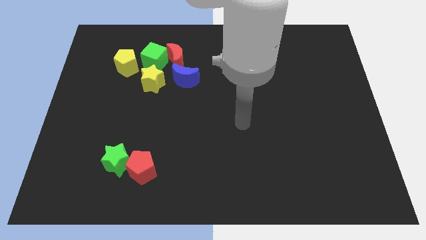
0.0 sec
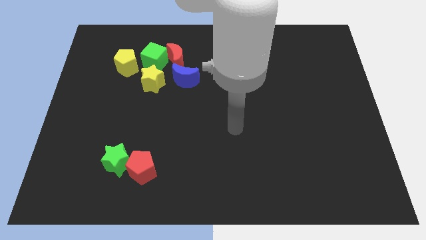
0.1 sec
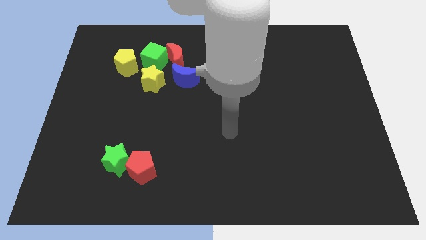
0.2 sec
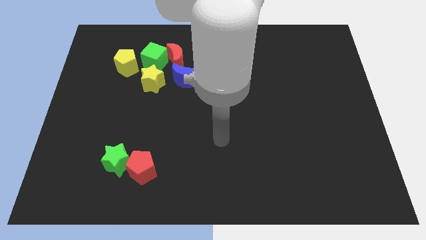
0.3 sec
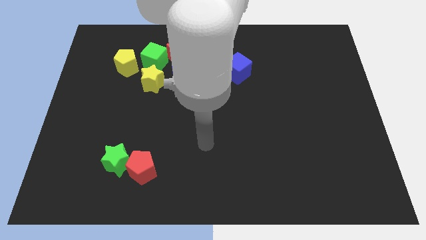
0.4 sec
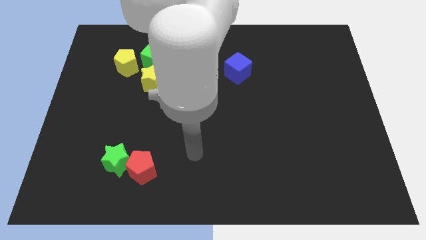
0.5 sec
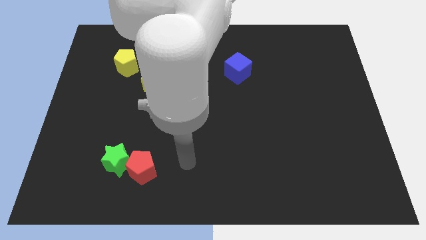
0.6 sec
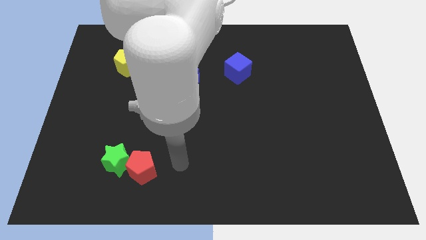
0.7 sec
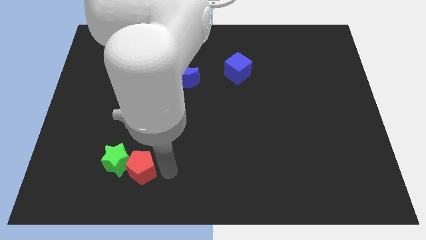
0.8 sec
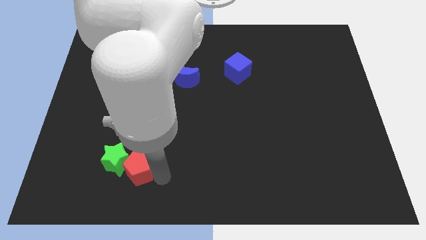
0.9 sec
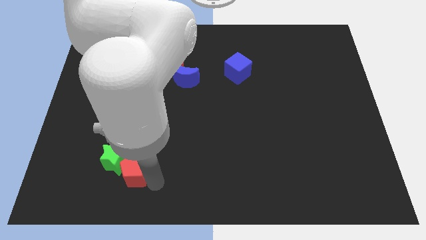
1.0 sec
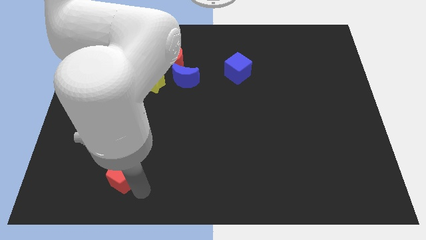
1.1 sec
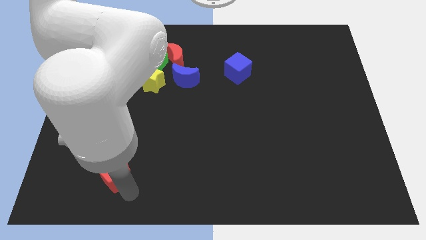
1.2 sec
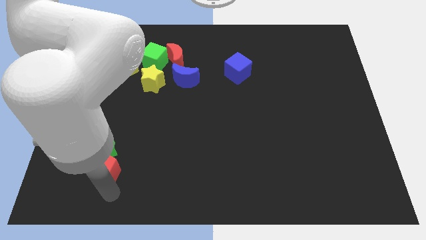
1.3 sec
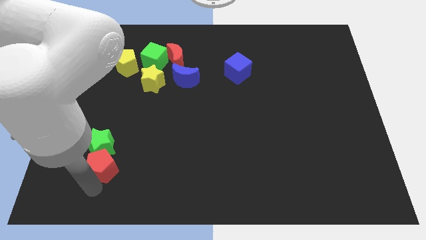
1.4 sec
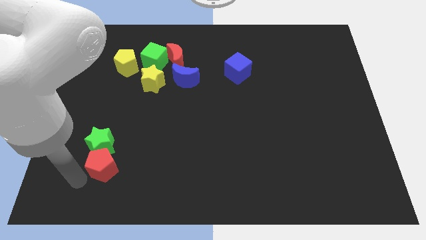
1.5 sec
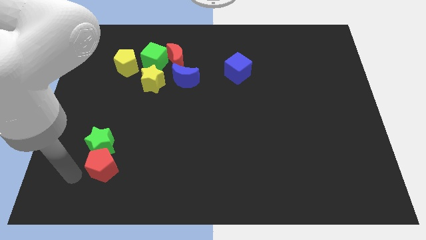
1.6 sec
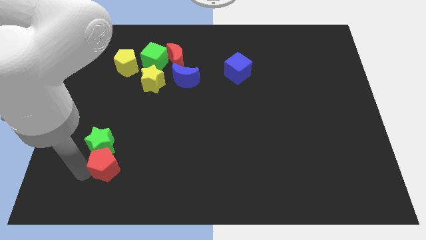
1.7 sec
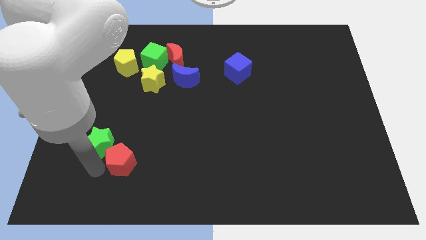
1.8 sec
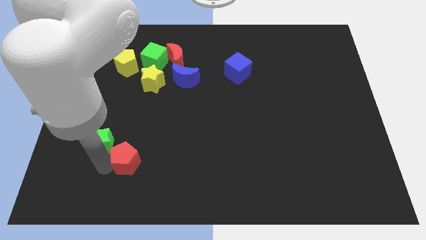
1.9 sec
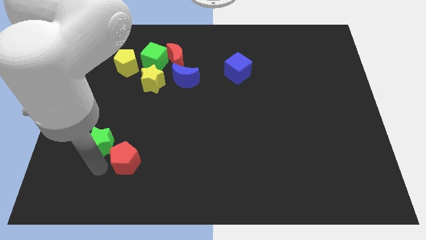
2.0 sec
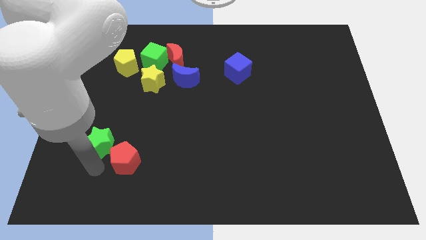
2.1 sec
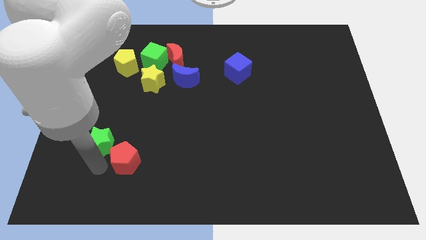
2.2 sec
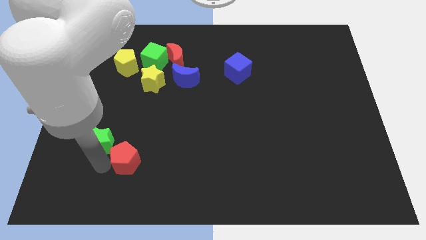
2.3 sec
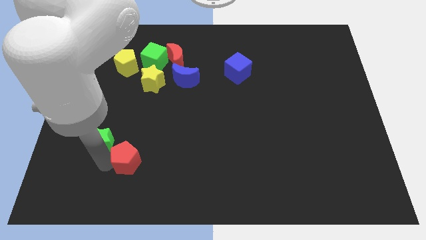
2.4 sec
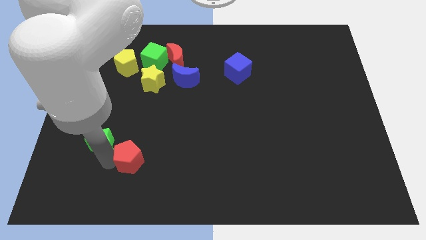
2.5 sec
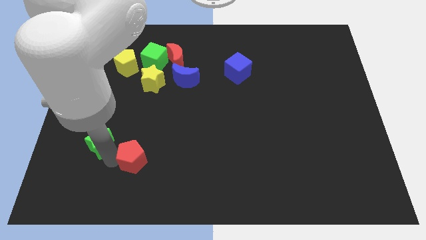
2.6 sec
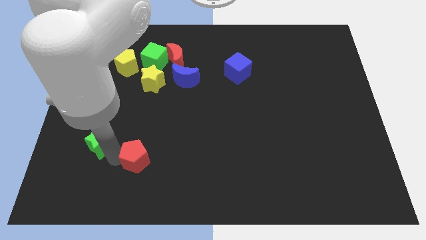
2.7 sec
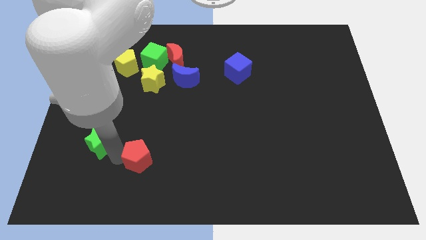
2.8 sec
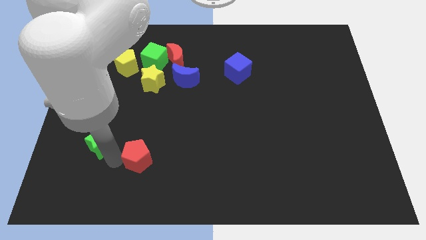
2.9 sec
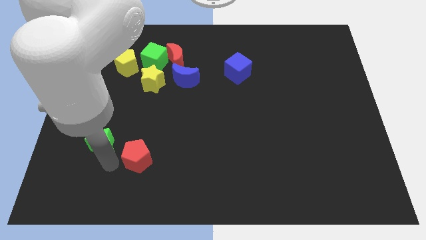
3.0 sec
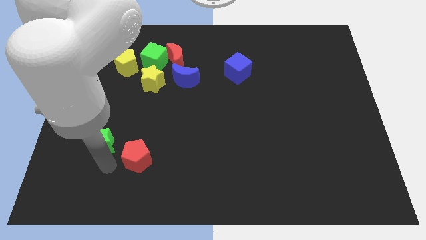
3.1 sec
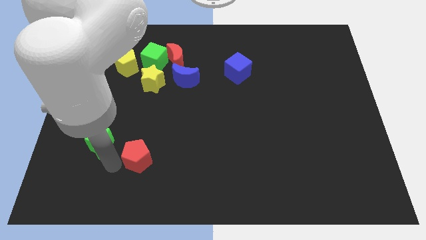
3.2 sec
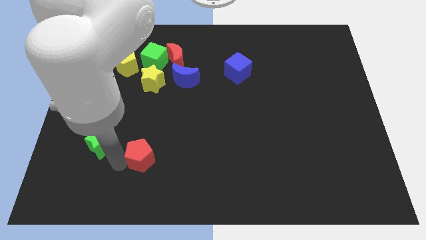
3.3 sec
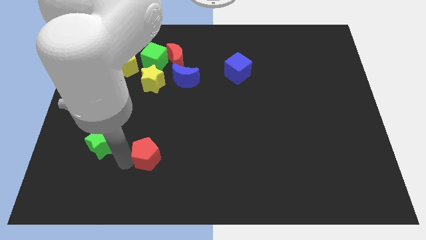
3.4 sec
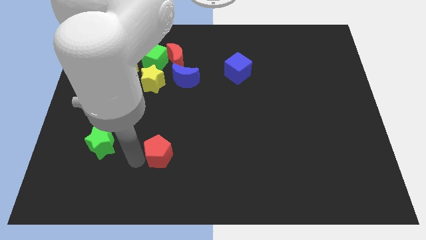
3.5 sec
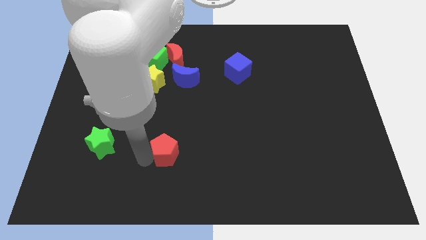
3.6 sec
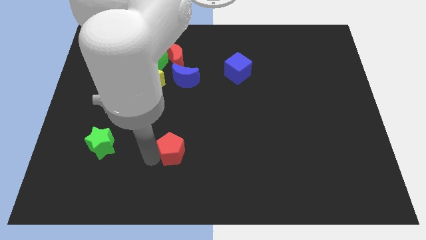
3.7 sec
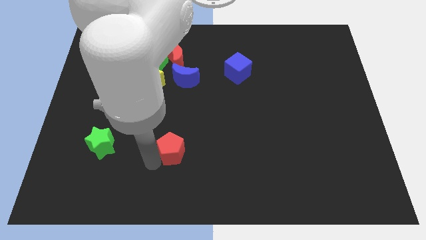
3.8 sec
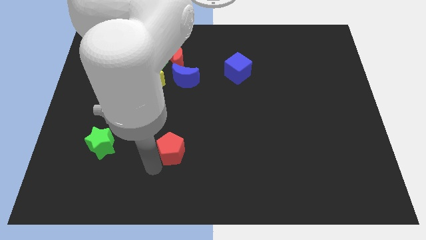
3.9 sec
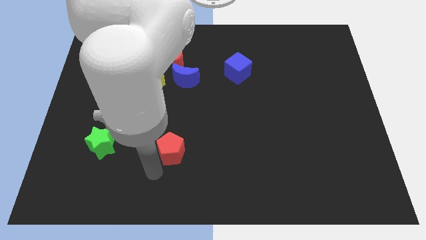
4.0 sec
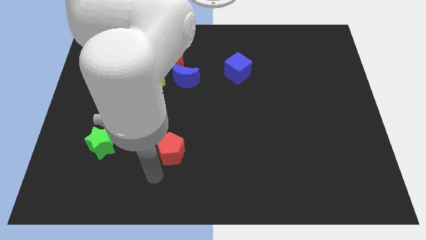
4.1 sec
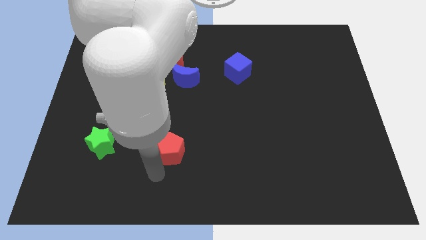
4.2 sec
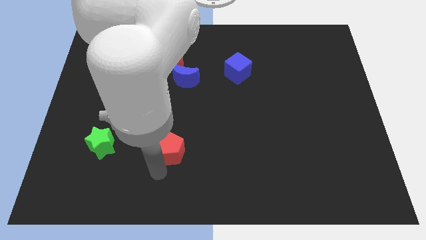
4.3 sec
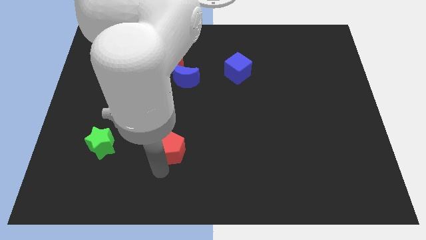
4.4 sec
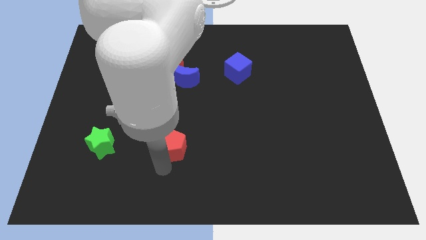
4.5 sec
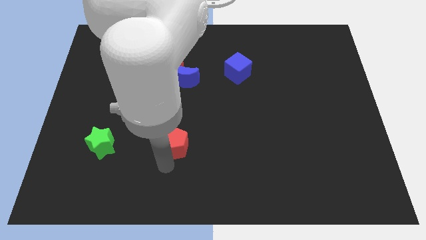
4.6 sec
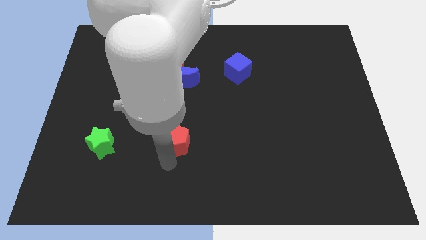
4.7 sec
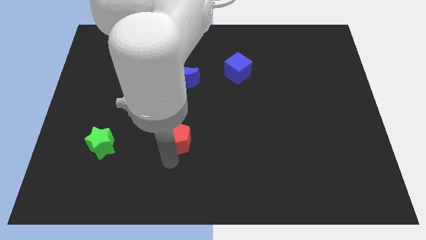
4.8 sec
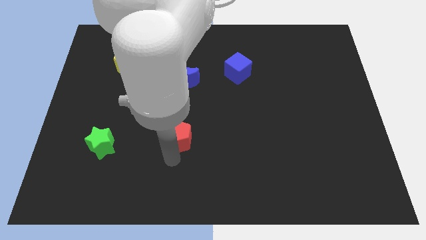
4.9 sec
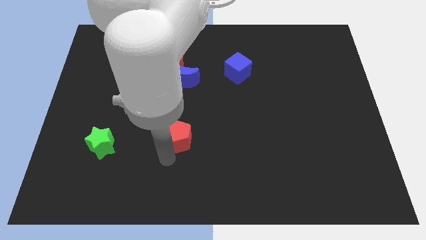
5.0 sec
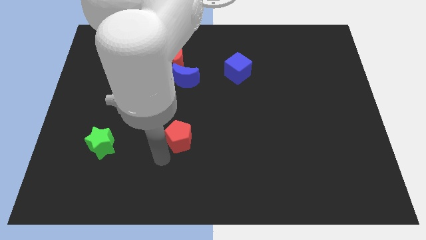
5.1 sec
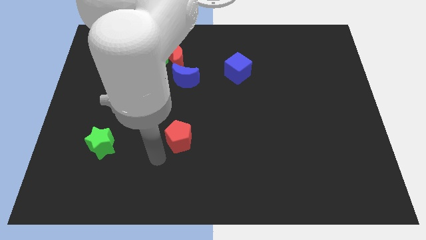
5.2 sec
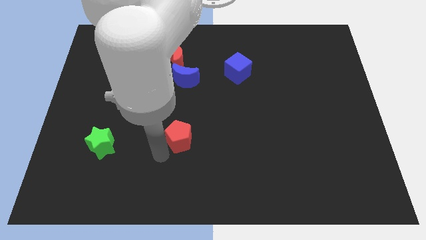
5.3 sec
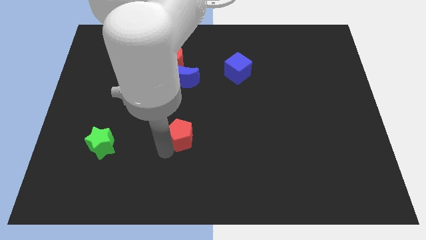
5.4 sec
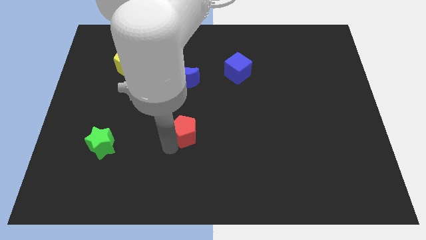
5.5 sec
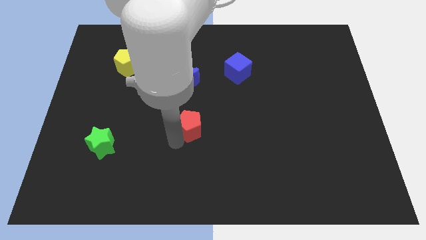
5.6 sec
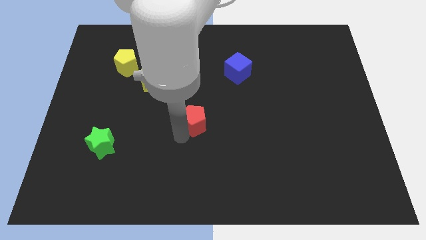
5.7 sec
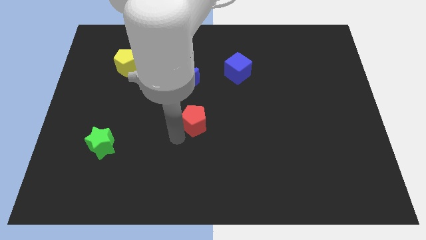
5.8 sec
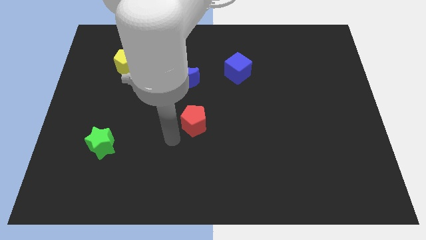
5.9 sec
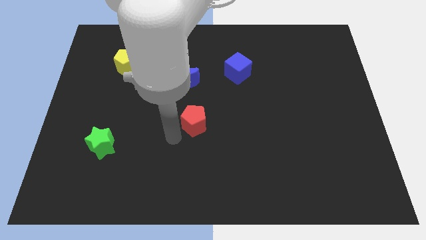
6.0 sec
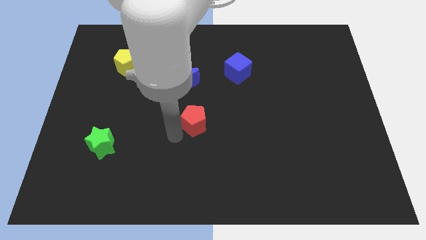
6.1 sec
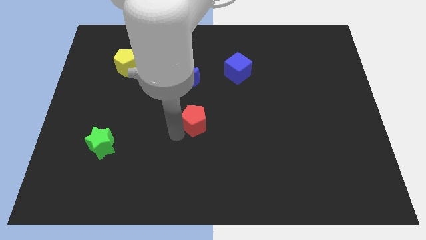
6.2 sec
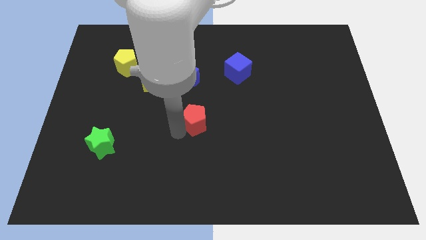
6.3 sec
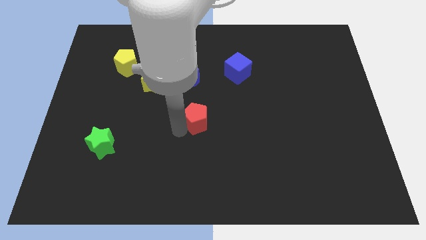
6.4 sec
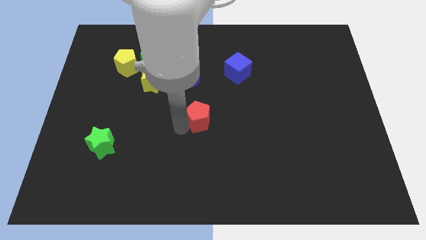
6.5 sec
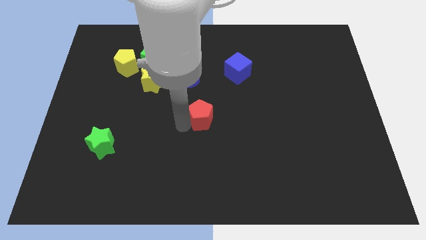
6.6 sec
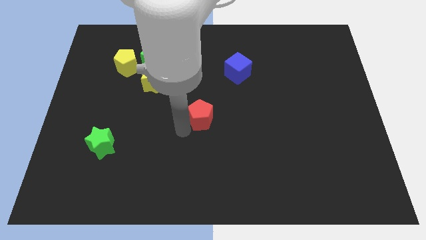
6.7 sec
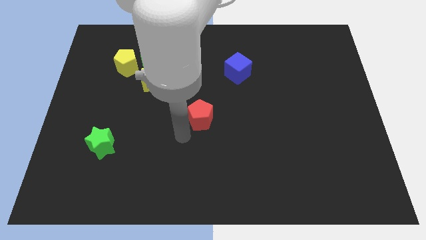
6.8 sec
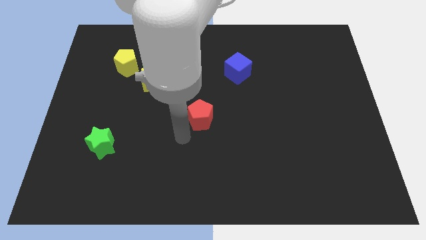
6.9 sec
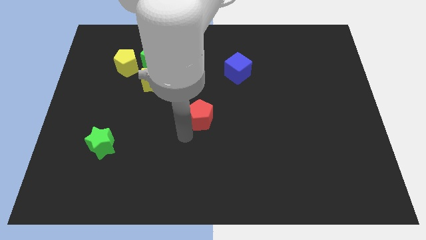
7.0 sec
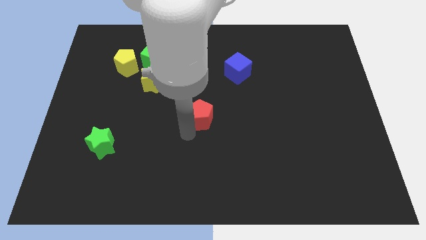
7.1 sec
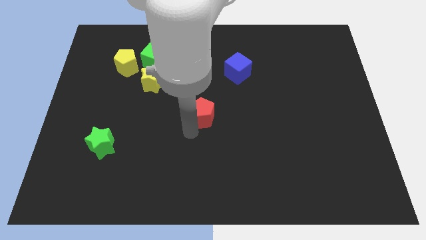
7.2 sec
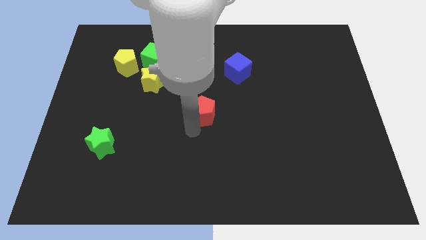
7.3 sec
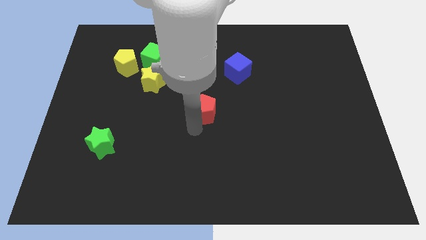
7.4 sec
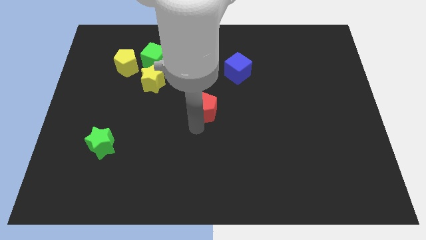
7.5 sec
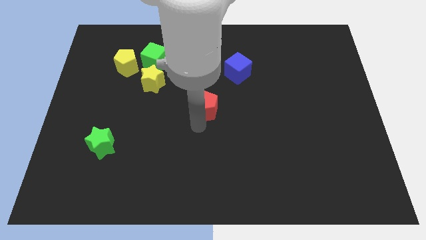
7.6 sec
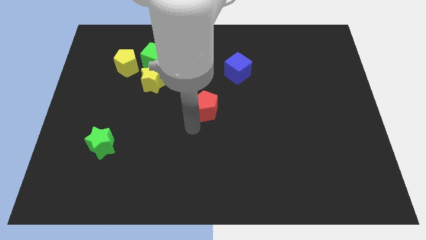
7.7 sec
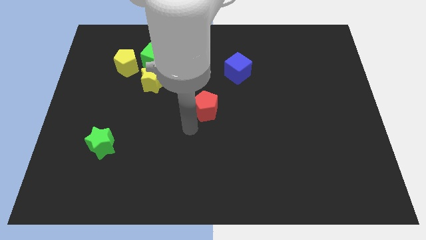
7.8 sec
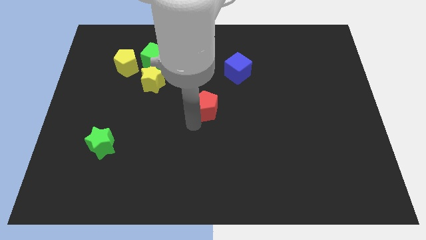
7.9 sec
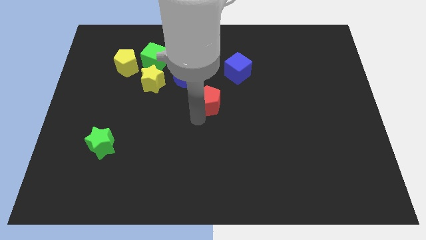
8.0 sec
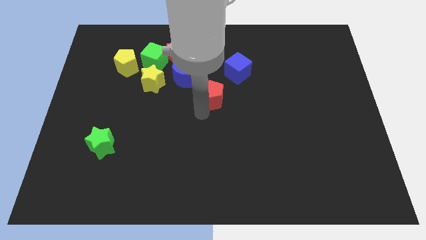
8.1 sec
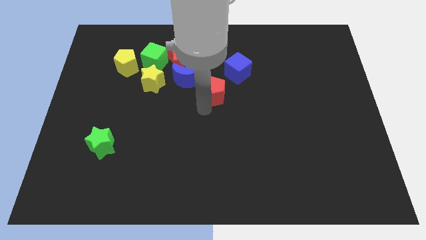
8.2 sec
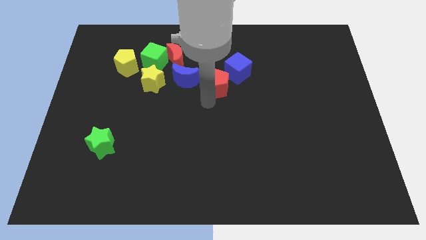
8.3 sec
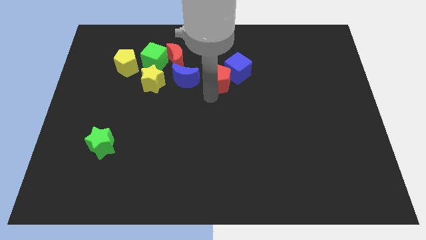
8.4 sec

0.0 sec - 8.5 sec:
slide the red pentagon close to the blue cube

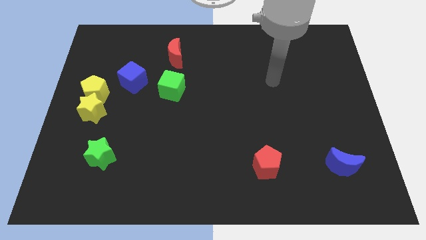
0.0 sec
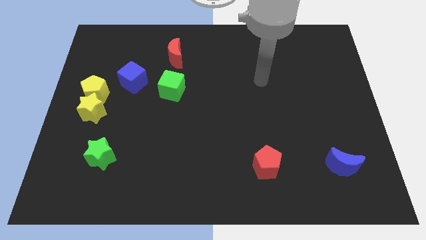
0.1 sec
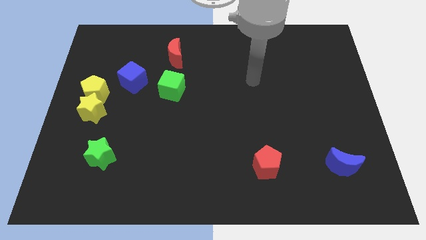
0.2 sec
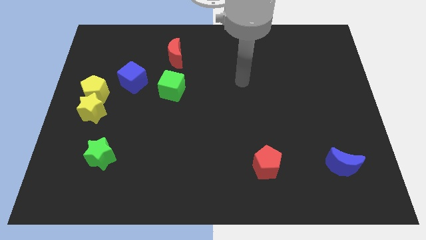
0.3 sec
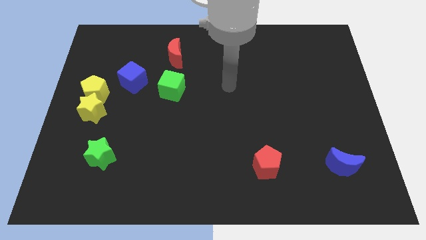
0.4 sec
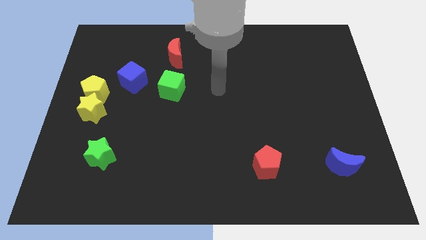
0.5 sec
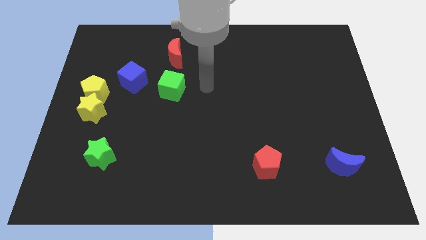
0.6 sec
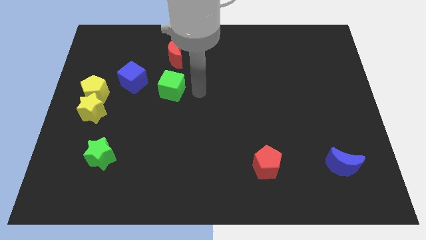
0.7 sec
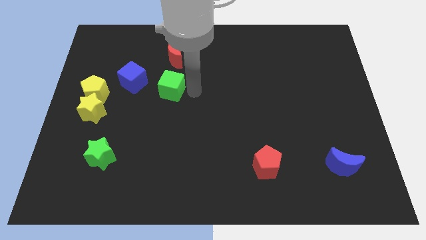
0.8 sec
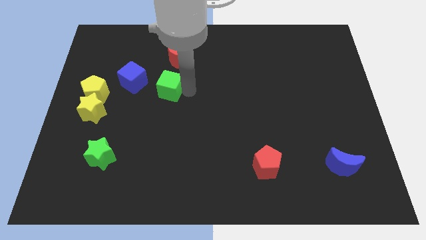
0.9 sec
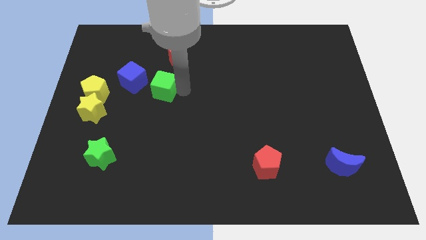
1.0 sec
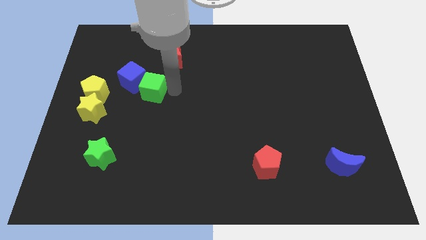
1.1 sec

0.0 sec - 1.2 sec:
move the green cube next to the blue cube
